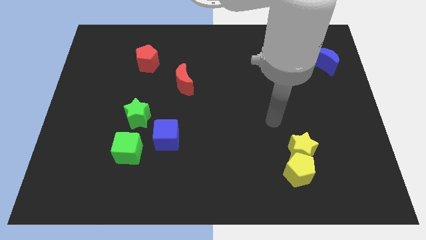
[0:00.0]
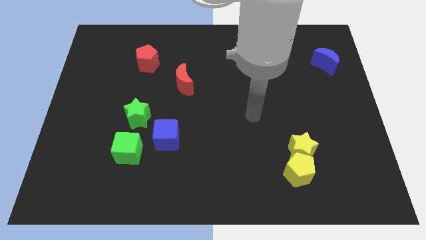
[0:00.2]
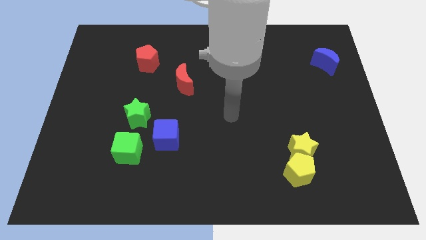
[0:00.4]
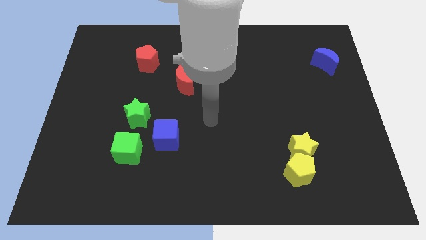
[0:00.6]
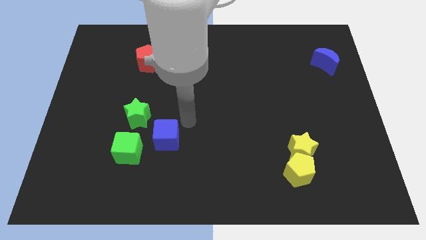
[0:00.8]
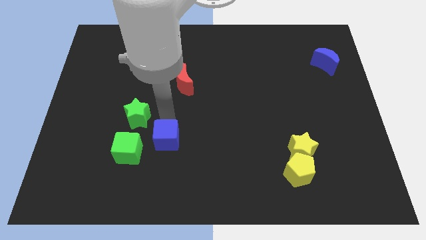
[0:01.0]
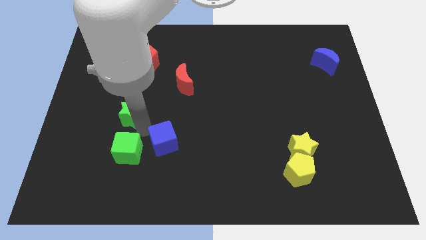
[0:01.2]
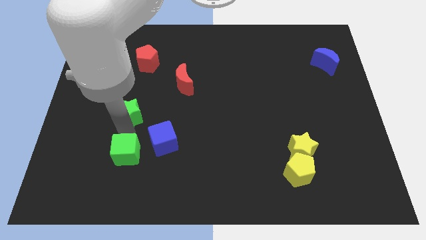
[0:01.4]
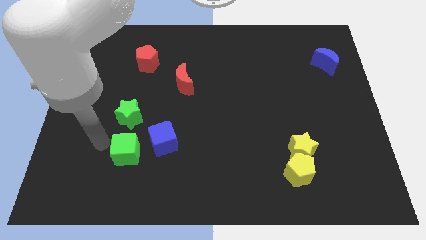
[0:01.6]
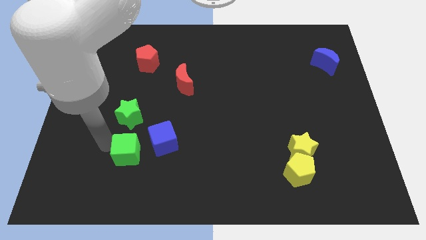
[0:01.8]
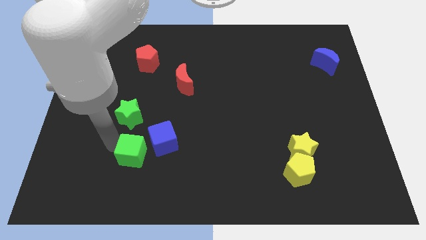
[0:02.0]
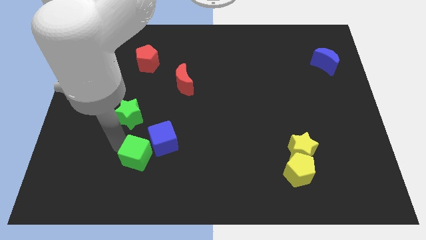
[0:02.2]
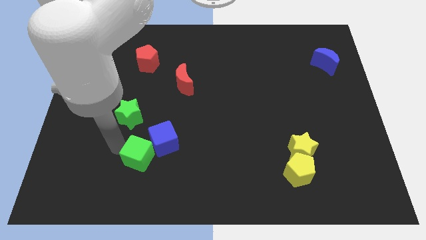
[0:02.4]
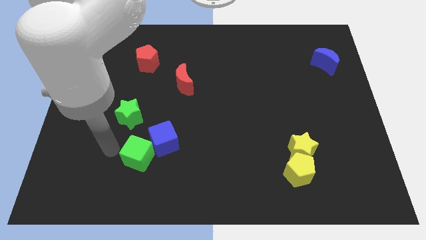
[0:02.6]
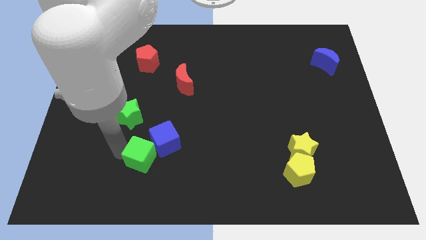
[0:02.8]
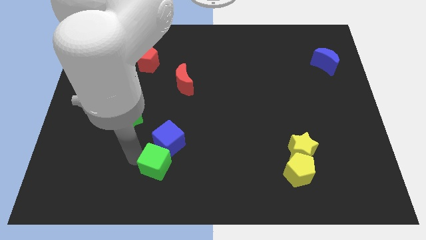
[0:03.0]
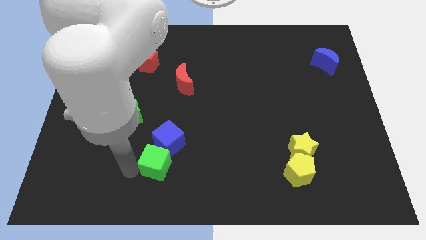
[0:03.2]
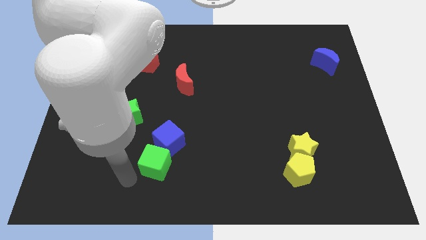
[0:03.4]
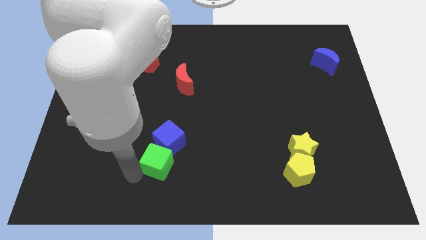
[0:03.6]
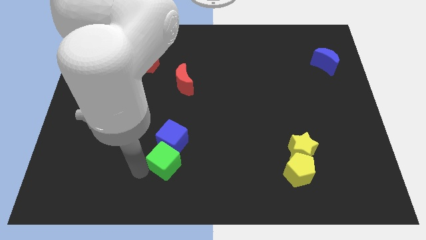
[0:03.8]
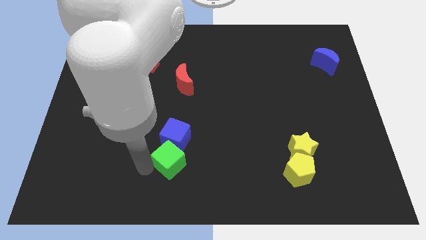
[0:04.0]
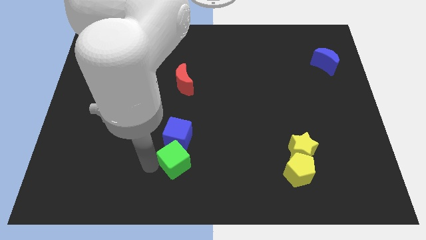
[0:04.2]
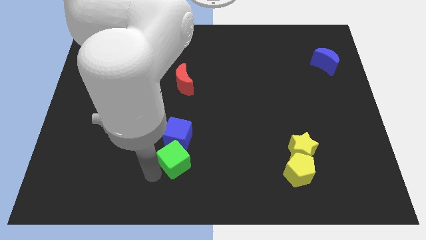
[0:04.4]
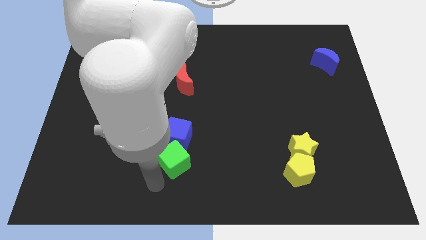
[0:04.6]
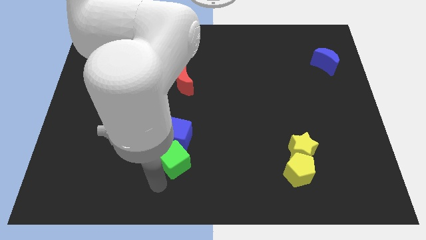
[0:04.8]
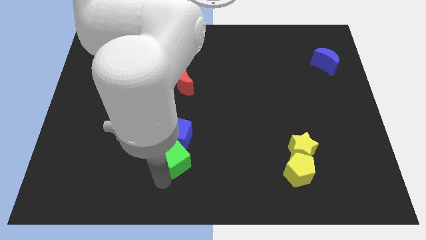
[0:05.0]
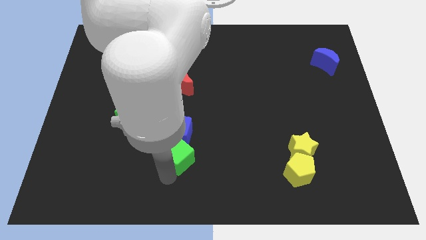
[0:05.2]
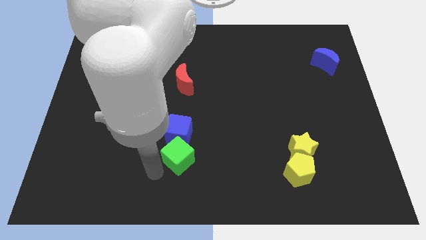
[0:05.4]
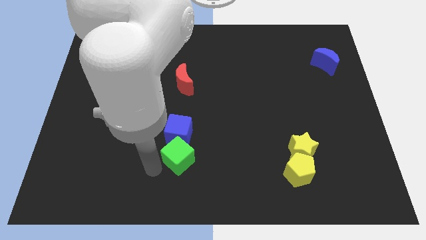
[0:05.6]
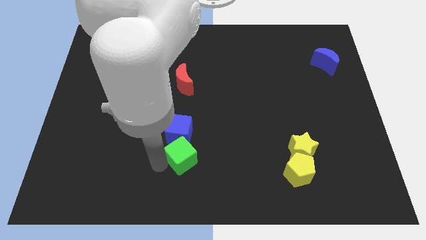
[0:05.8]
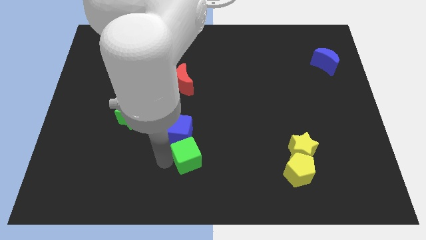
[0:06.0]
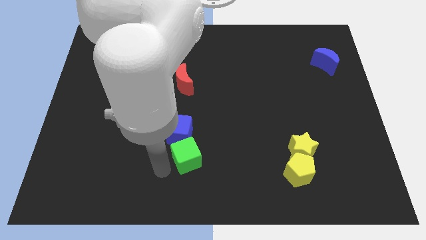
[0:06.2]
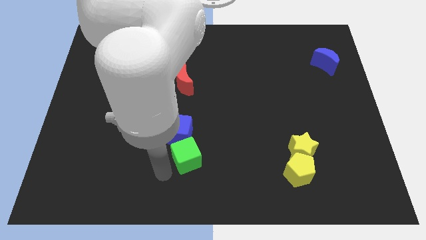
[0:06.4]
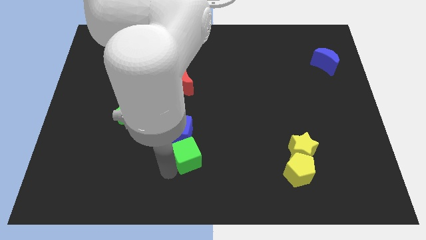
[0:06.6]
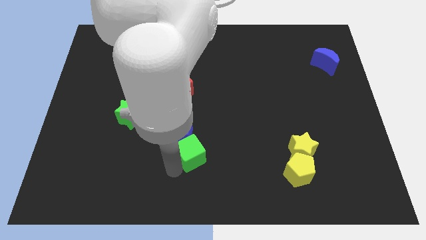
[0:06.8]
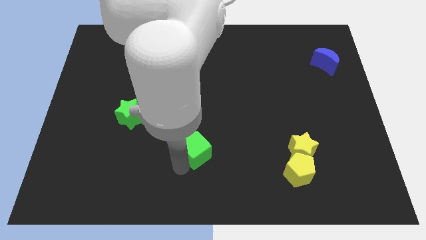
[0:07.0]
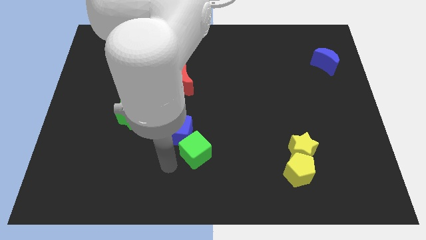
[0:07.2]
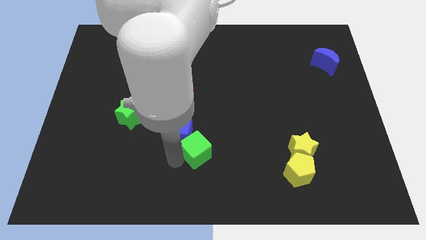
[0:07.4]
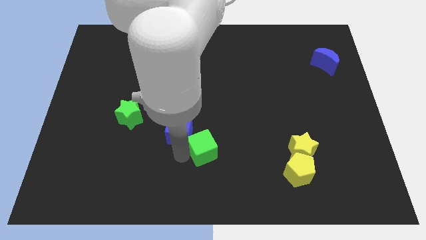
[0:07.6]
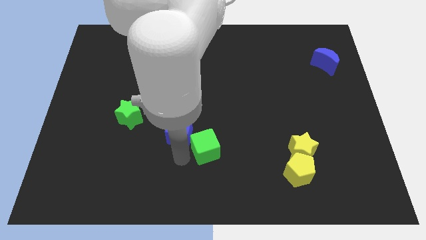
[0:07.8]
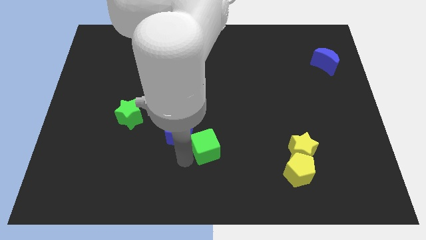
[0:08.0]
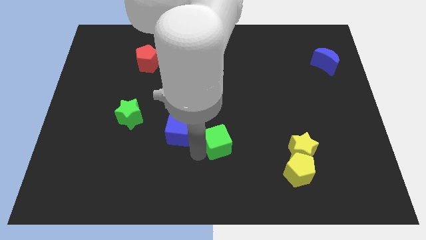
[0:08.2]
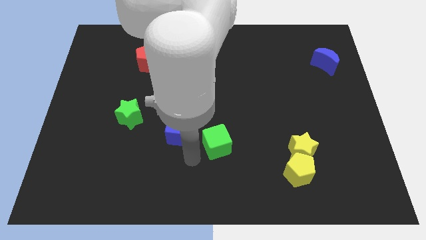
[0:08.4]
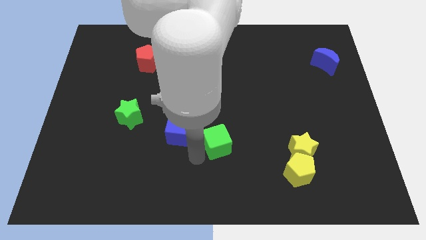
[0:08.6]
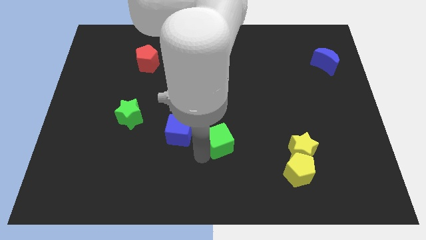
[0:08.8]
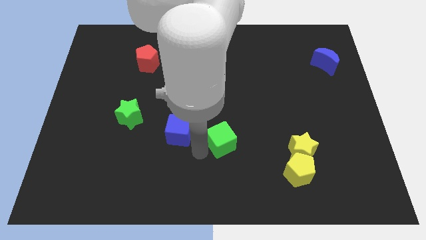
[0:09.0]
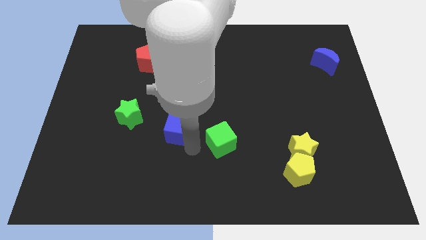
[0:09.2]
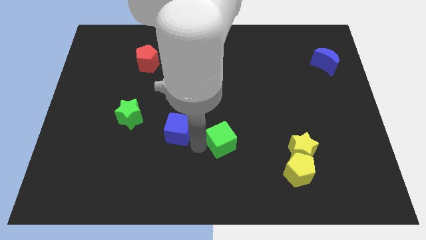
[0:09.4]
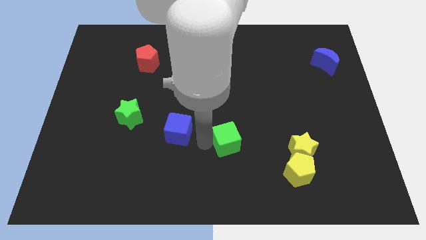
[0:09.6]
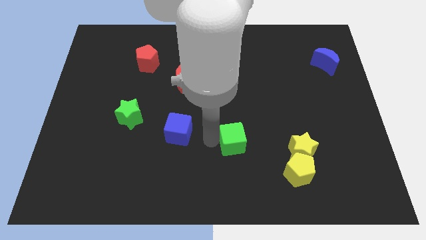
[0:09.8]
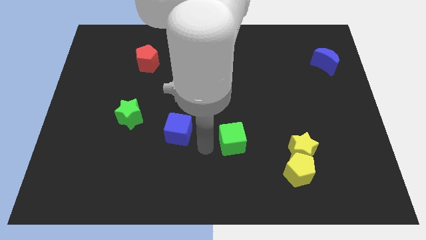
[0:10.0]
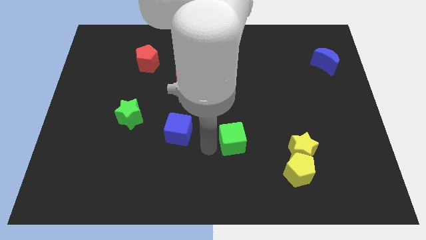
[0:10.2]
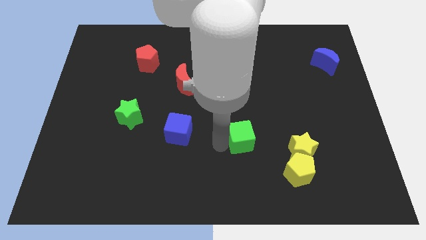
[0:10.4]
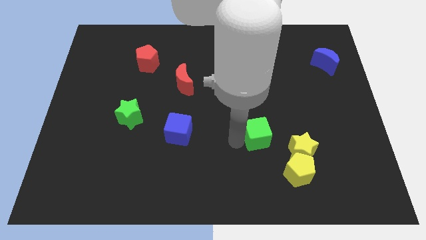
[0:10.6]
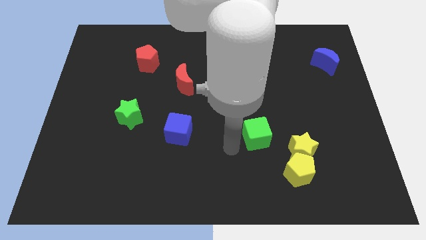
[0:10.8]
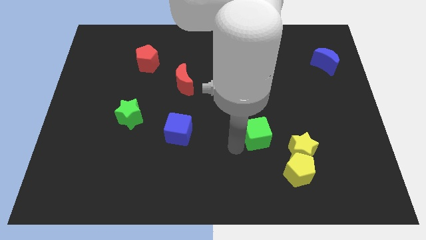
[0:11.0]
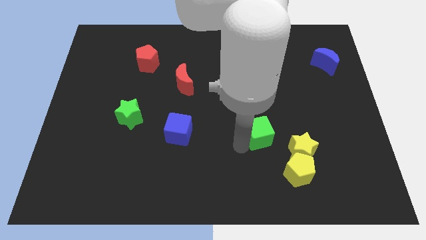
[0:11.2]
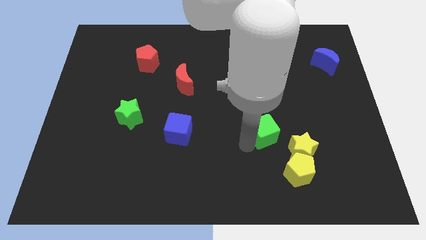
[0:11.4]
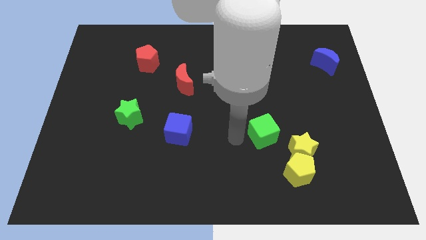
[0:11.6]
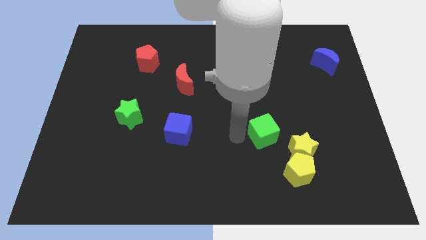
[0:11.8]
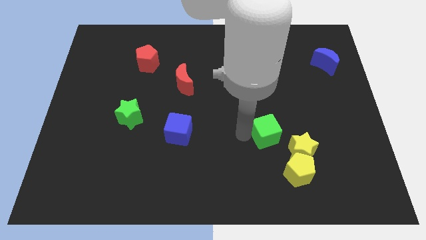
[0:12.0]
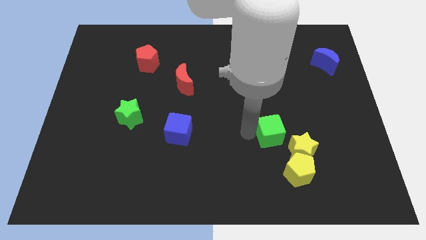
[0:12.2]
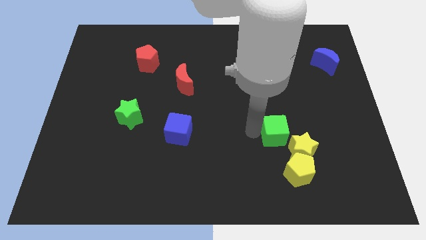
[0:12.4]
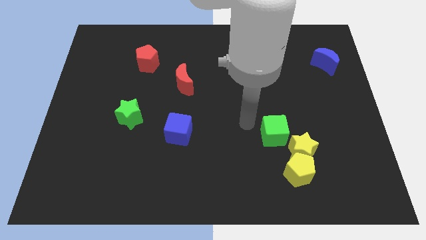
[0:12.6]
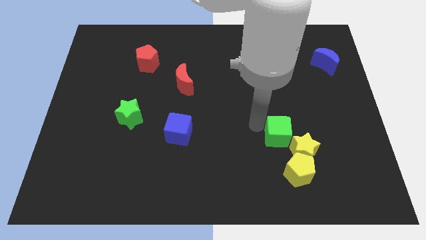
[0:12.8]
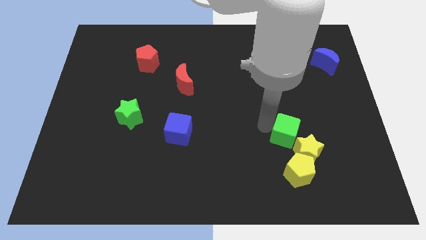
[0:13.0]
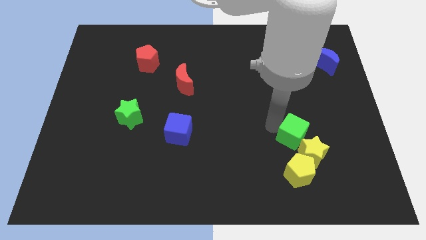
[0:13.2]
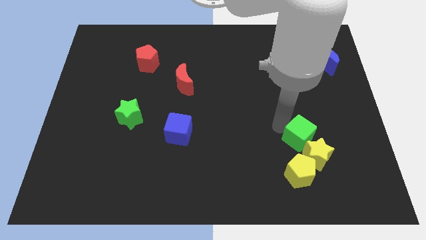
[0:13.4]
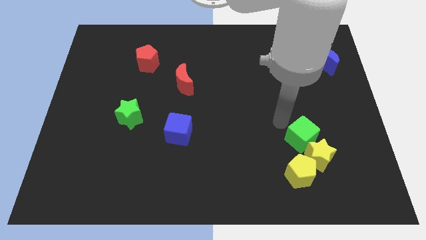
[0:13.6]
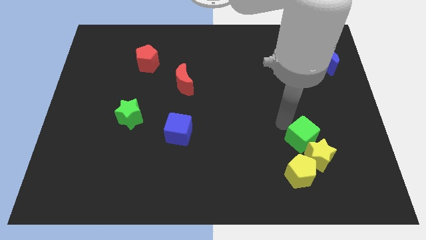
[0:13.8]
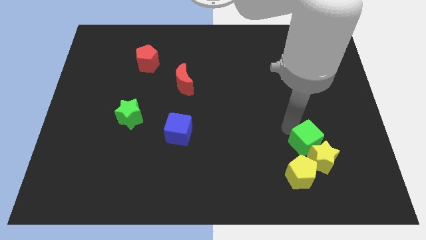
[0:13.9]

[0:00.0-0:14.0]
slide the green cube diagonally up and to the right of the yellow pentagon

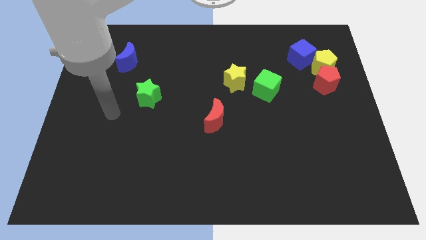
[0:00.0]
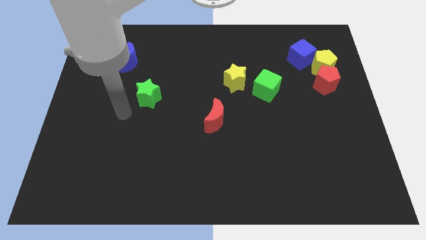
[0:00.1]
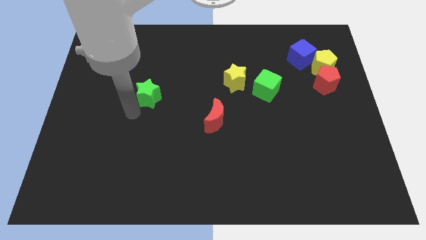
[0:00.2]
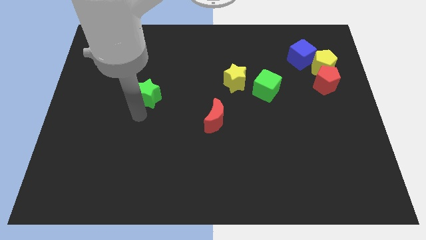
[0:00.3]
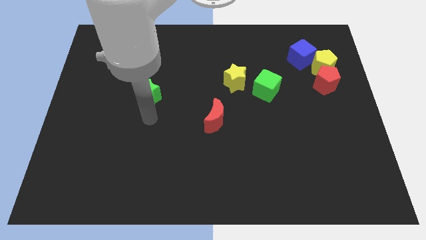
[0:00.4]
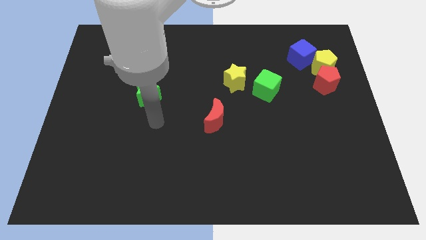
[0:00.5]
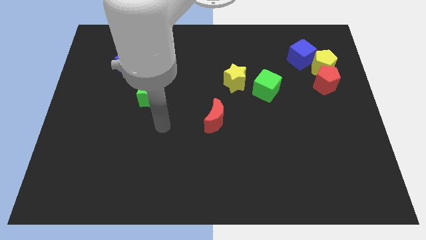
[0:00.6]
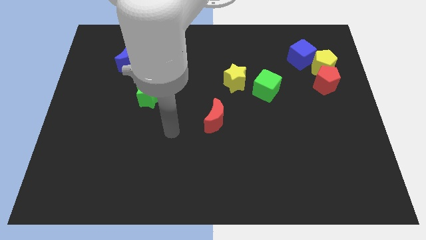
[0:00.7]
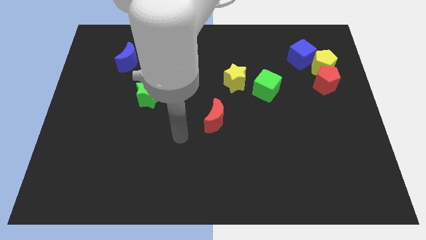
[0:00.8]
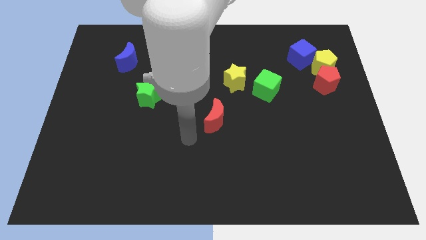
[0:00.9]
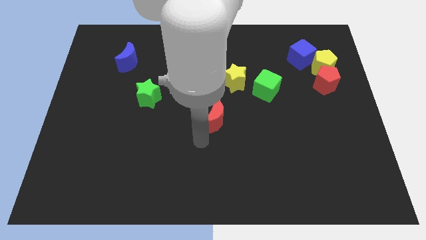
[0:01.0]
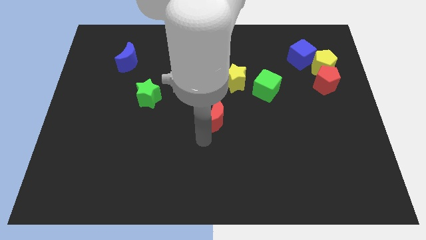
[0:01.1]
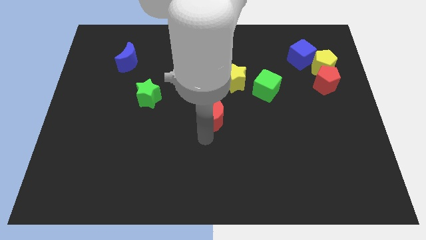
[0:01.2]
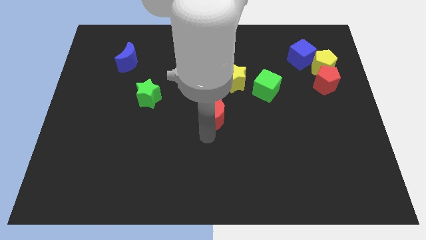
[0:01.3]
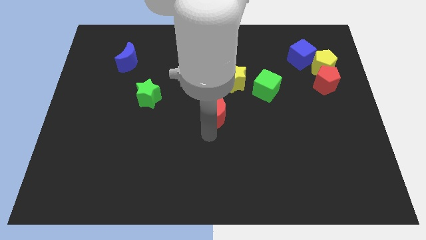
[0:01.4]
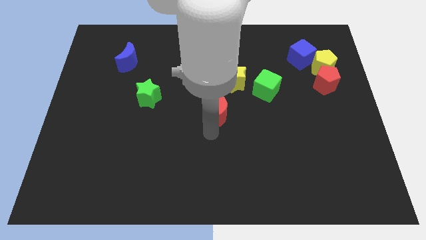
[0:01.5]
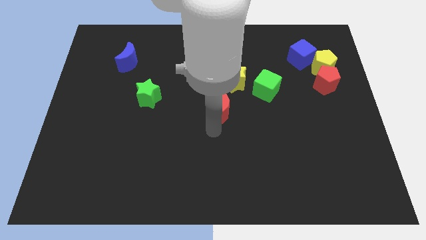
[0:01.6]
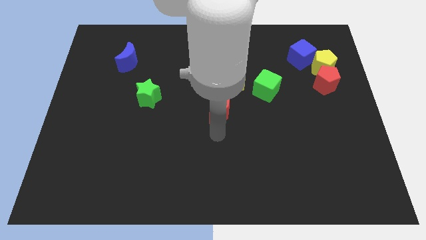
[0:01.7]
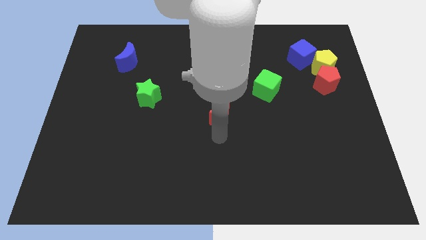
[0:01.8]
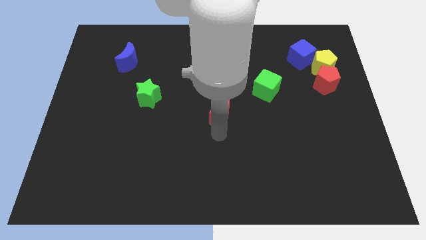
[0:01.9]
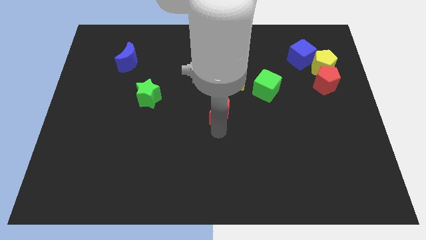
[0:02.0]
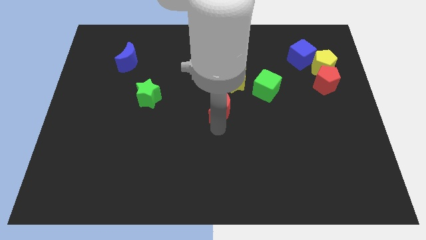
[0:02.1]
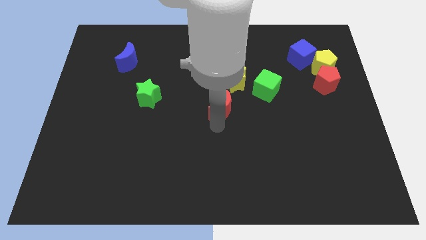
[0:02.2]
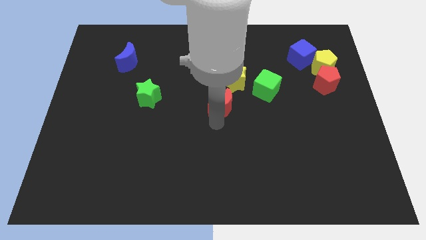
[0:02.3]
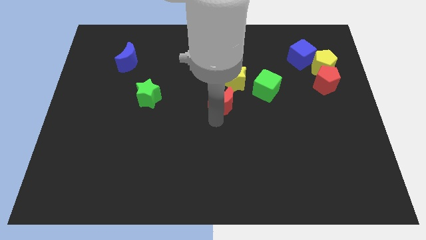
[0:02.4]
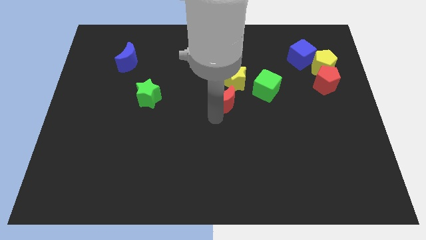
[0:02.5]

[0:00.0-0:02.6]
push the red moon just left of the green cube
